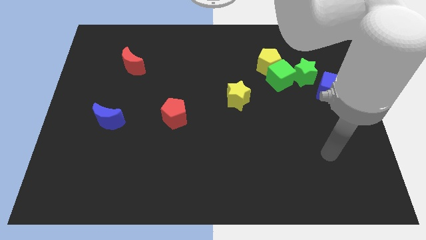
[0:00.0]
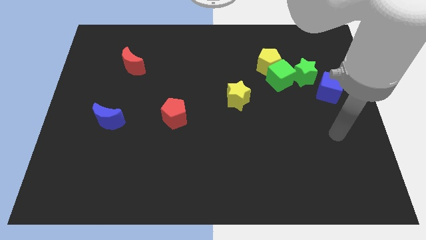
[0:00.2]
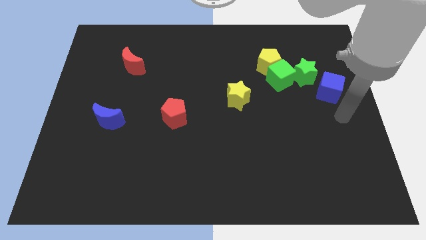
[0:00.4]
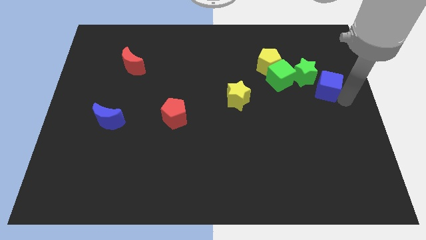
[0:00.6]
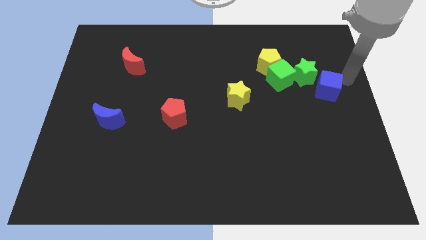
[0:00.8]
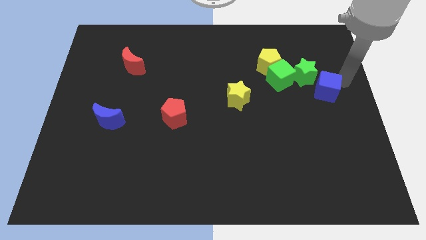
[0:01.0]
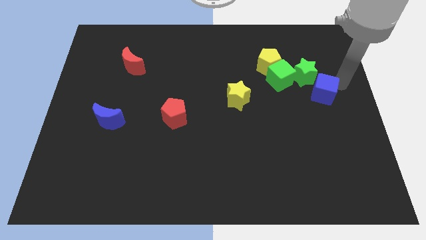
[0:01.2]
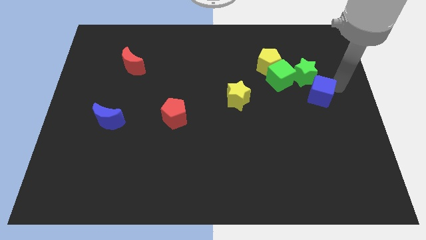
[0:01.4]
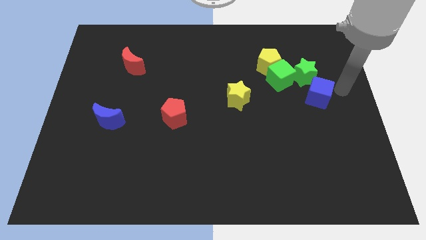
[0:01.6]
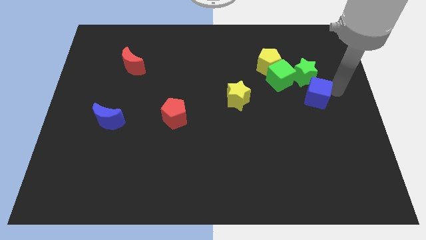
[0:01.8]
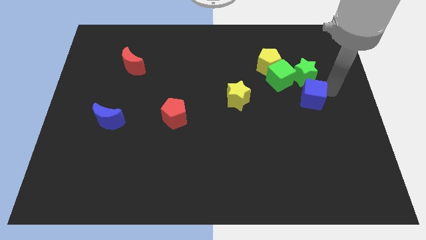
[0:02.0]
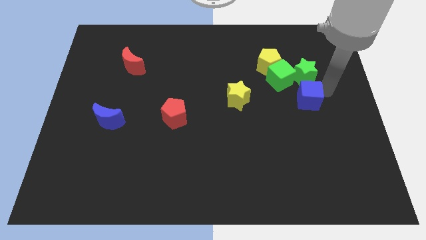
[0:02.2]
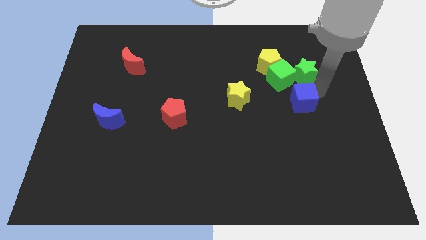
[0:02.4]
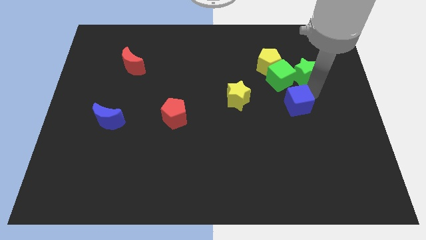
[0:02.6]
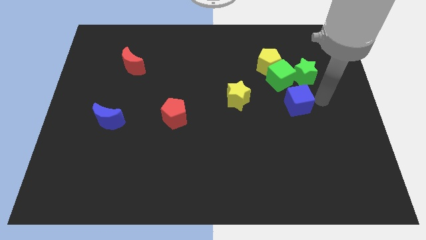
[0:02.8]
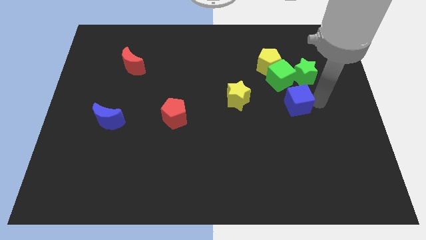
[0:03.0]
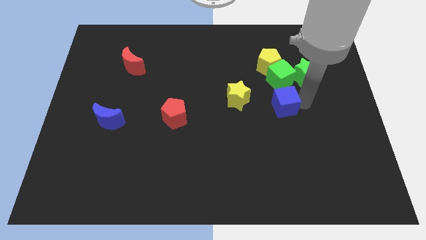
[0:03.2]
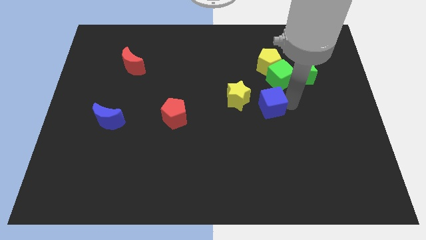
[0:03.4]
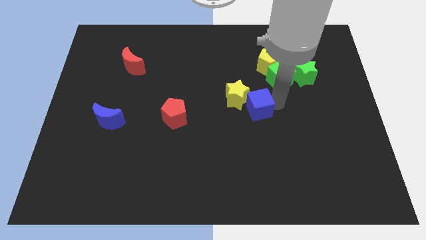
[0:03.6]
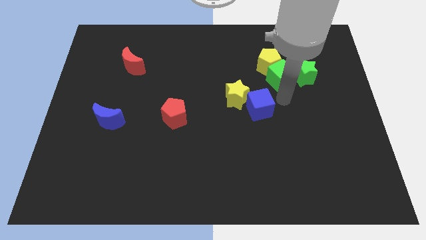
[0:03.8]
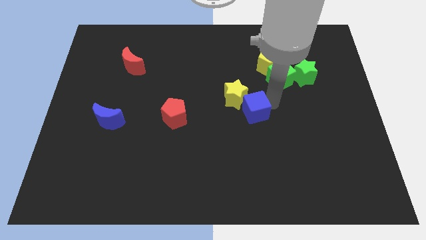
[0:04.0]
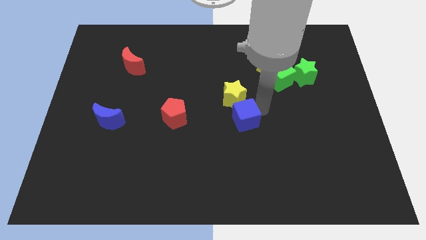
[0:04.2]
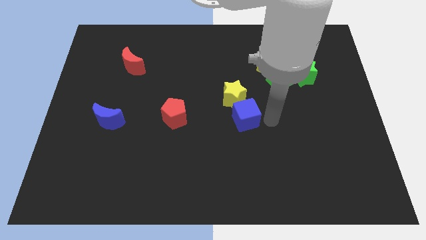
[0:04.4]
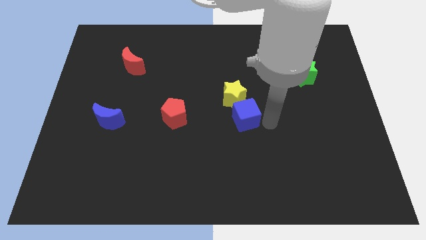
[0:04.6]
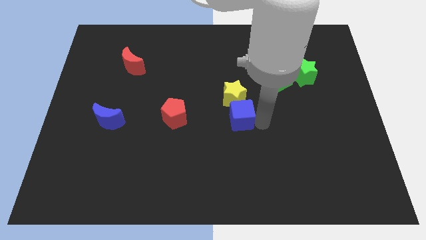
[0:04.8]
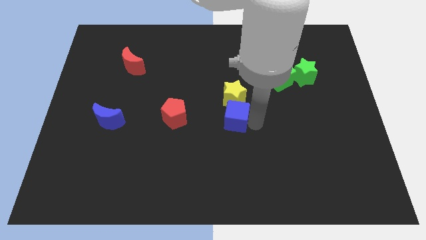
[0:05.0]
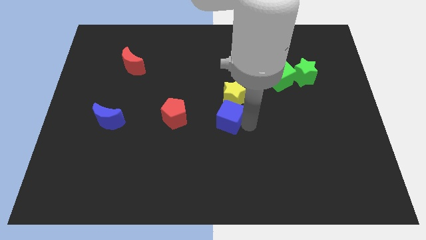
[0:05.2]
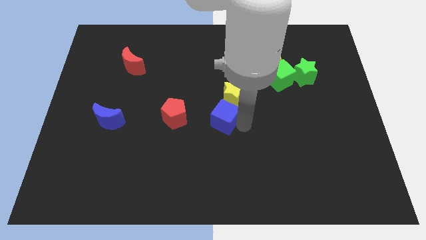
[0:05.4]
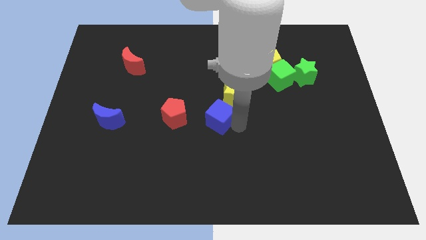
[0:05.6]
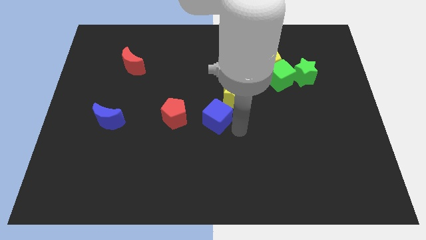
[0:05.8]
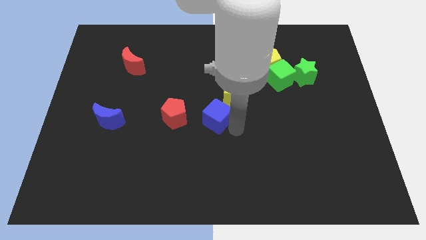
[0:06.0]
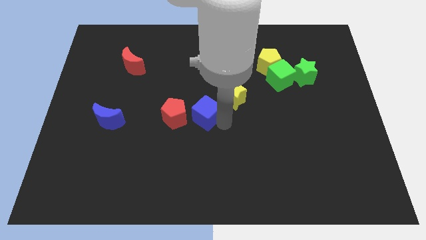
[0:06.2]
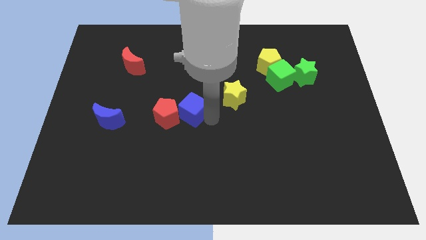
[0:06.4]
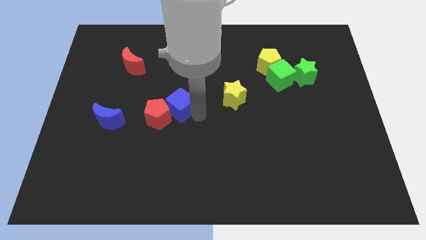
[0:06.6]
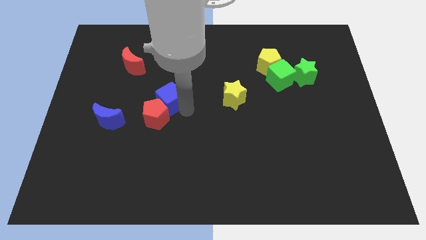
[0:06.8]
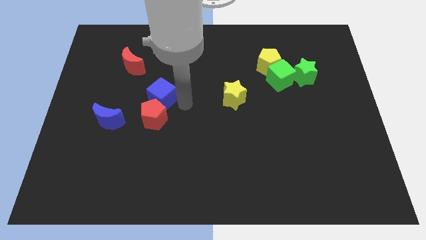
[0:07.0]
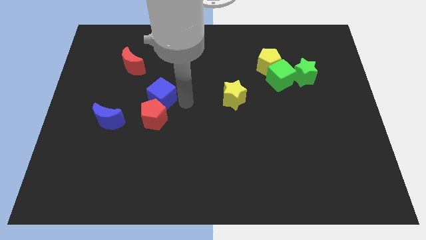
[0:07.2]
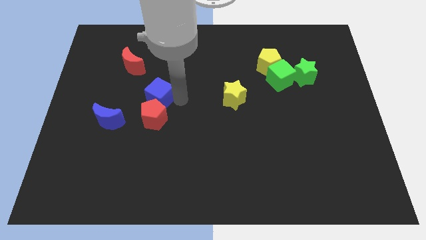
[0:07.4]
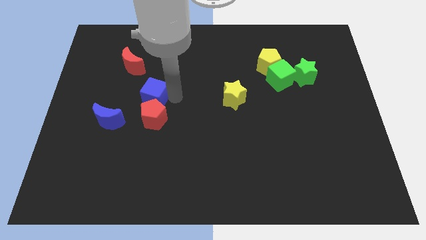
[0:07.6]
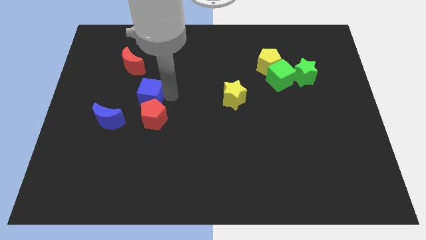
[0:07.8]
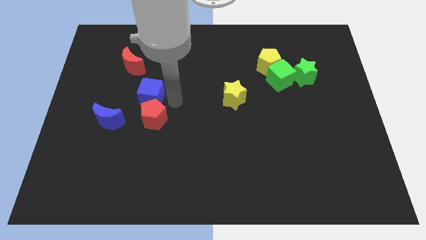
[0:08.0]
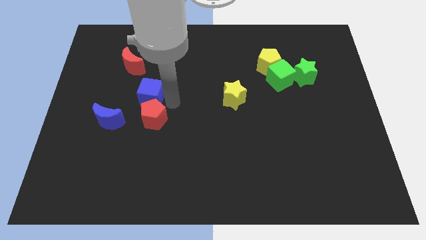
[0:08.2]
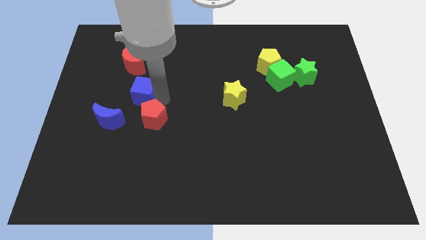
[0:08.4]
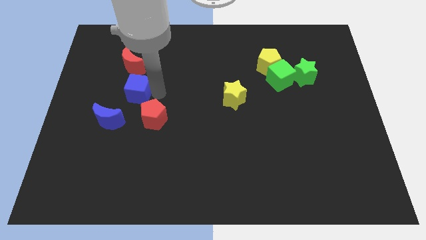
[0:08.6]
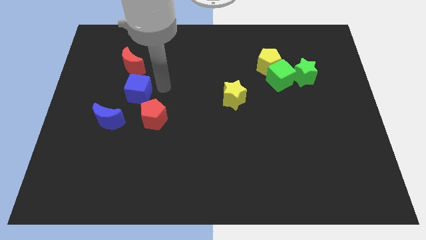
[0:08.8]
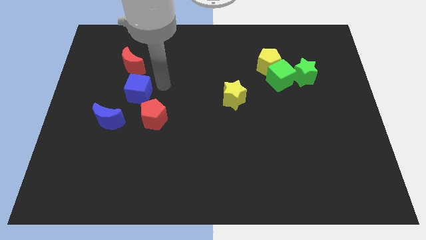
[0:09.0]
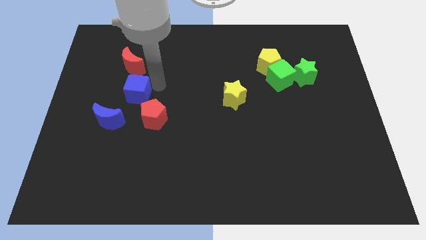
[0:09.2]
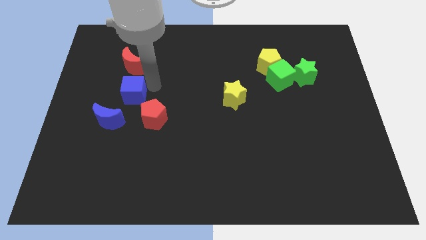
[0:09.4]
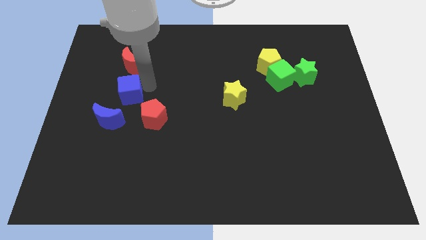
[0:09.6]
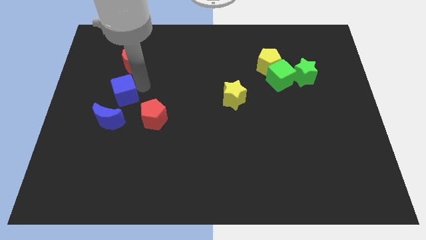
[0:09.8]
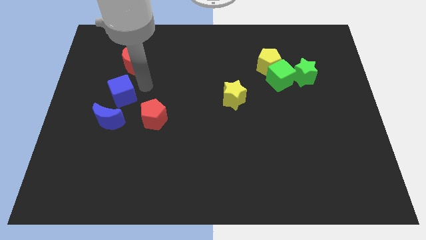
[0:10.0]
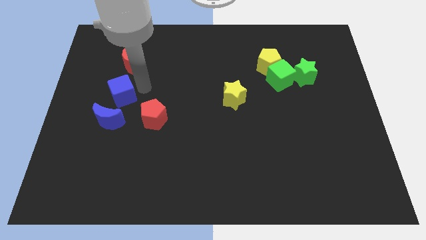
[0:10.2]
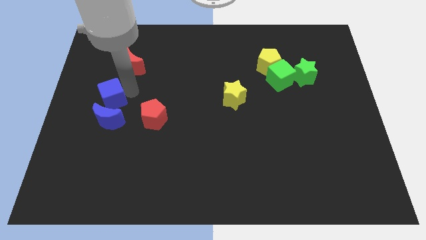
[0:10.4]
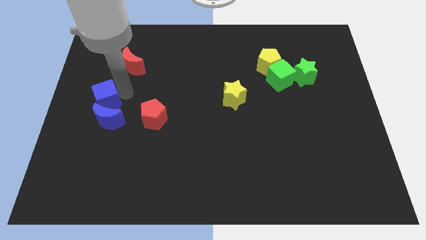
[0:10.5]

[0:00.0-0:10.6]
slide the blue cube to the center left
